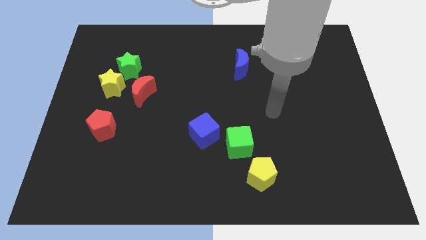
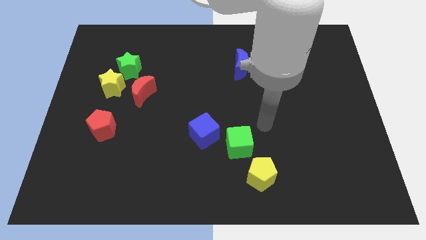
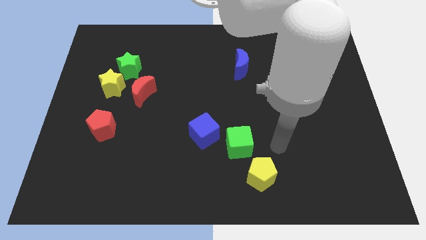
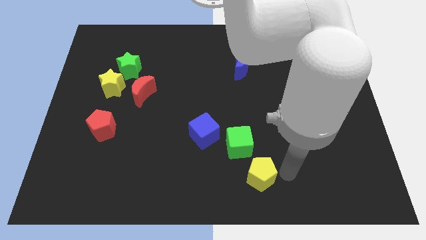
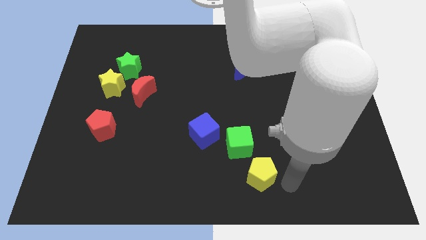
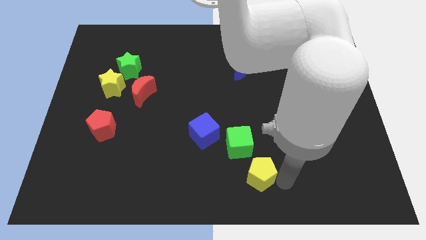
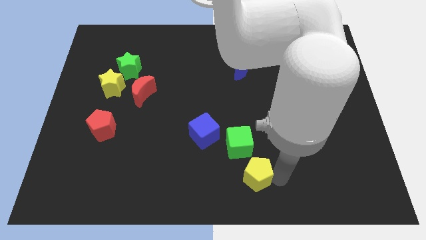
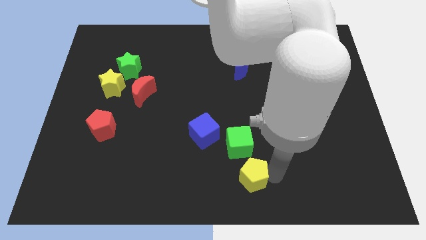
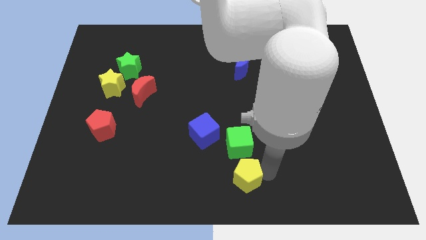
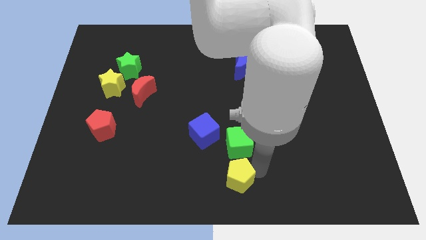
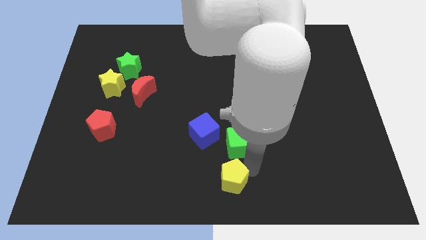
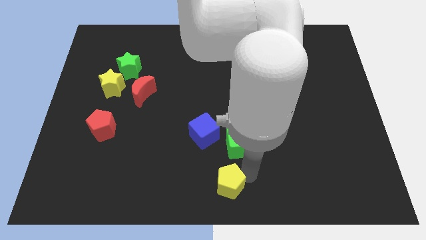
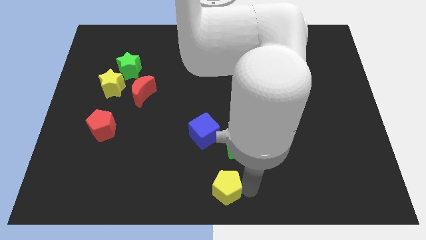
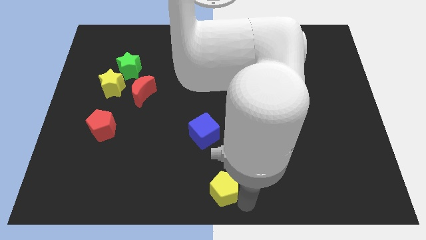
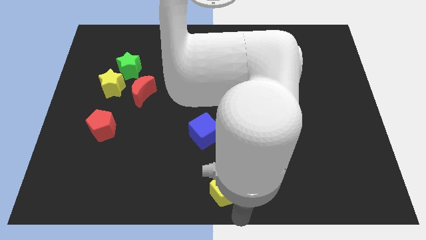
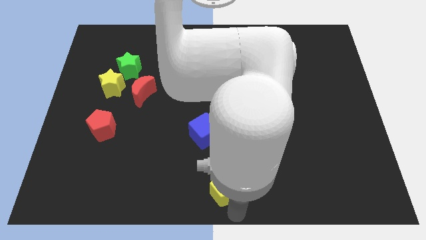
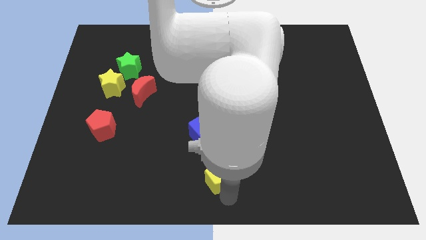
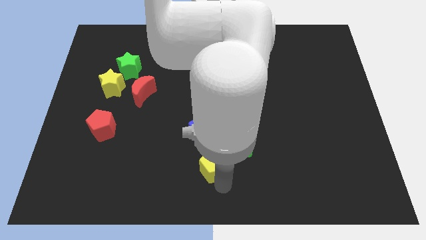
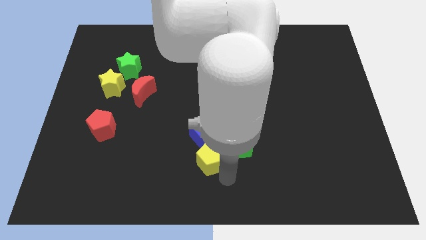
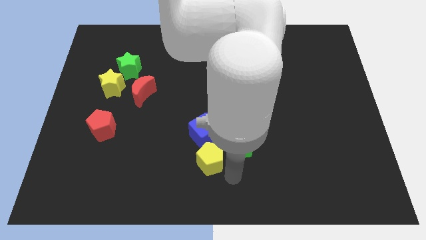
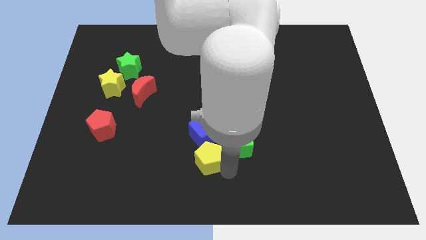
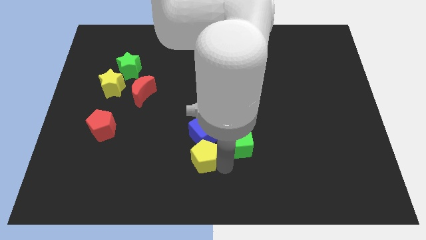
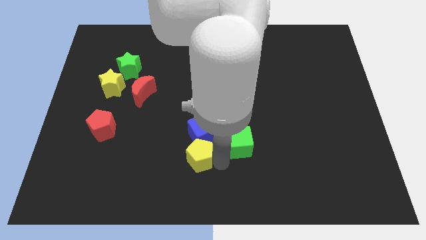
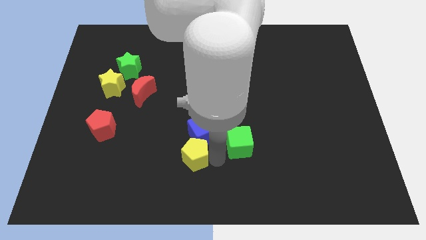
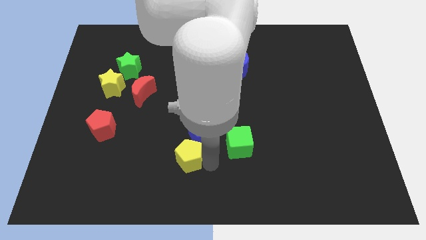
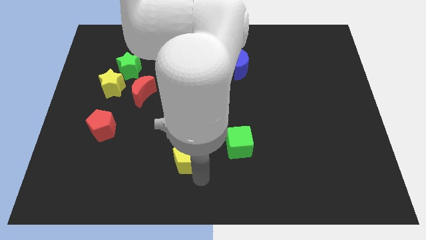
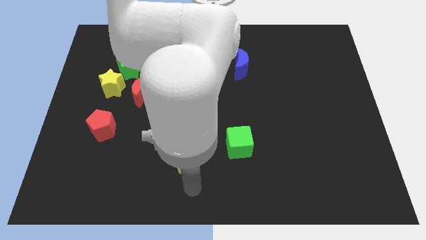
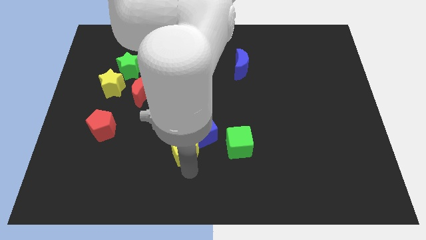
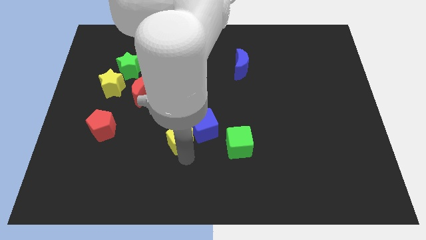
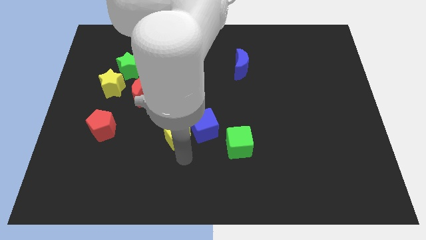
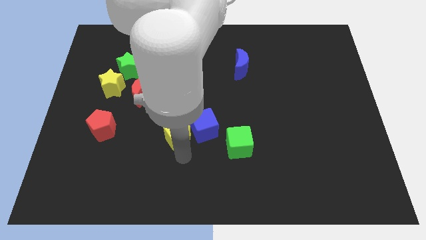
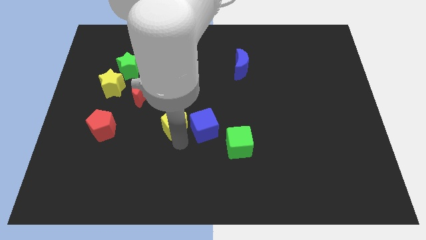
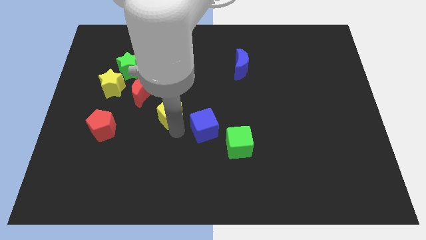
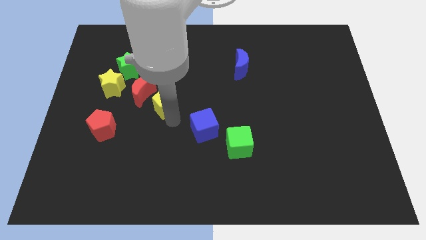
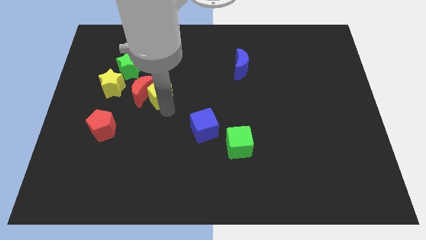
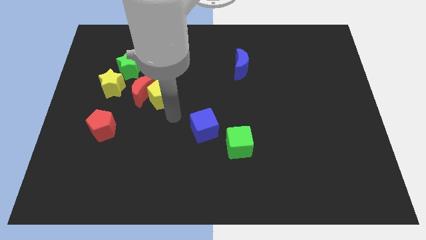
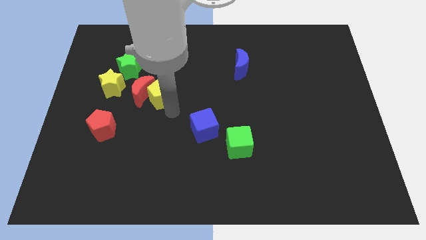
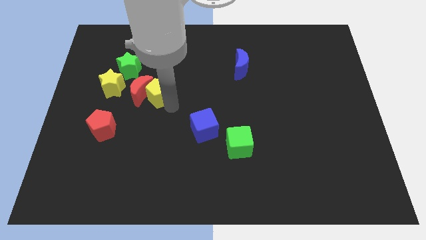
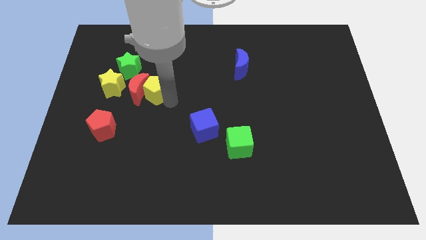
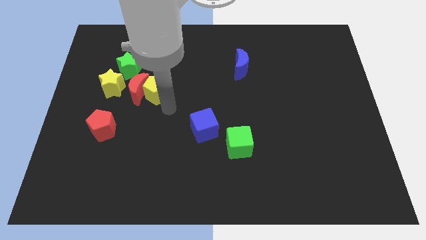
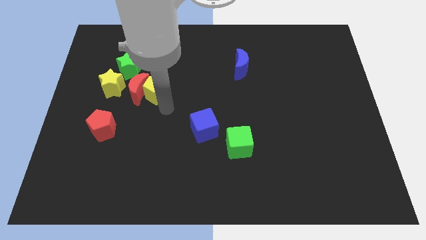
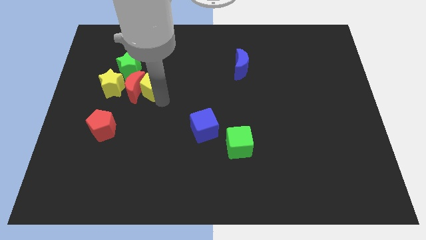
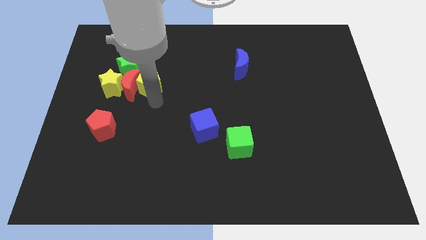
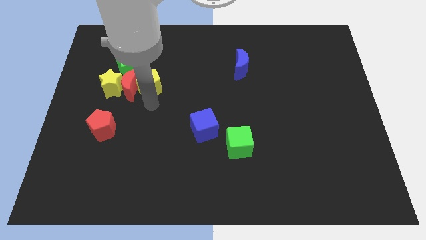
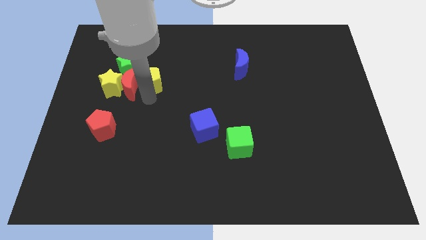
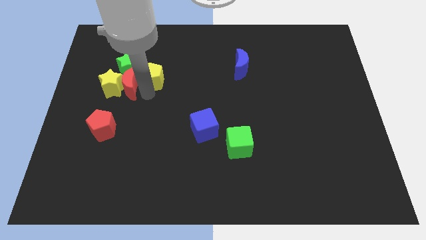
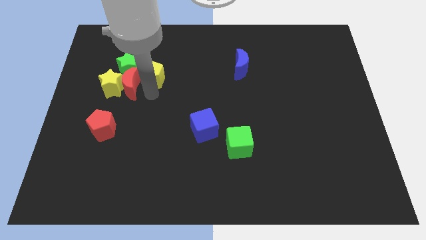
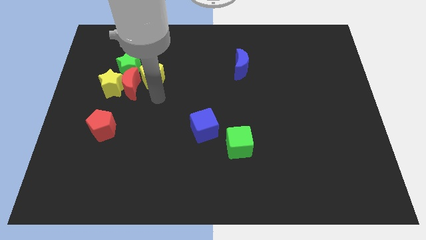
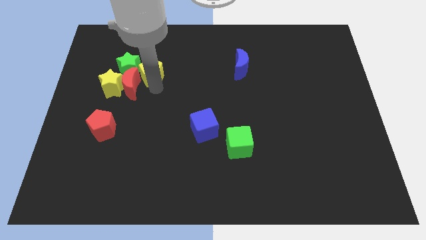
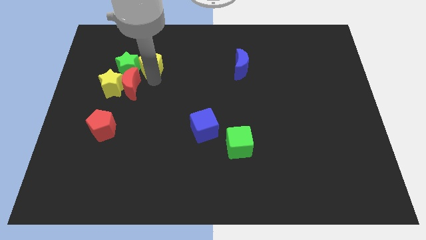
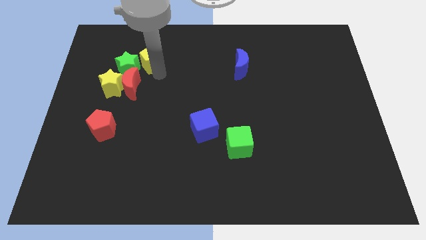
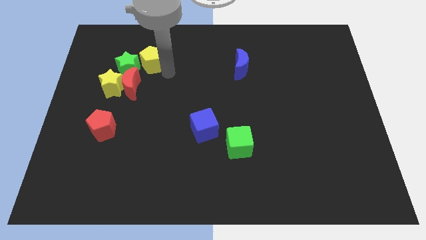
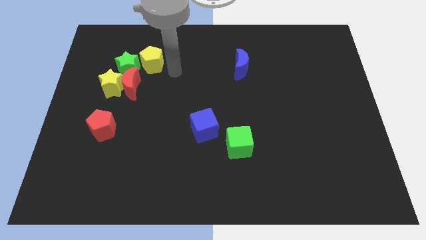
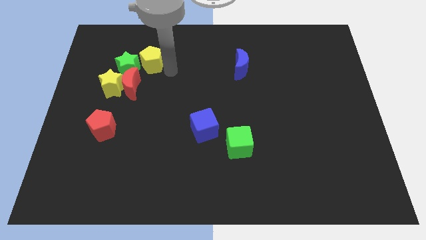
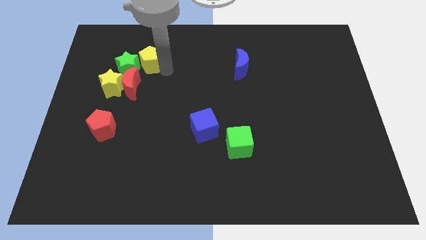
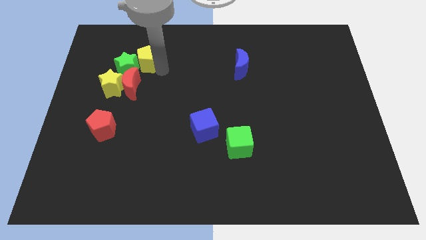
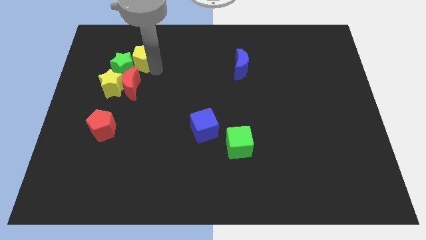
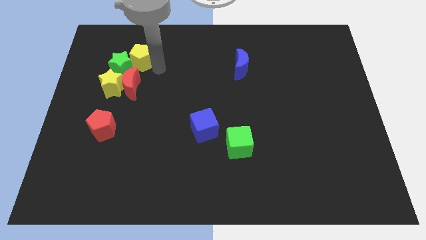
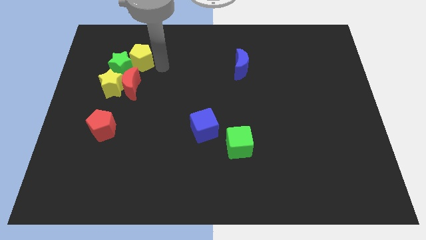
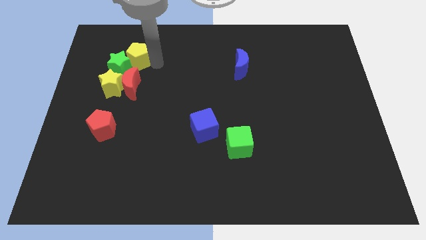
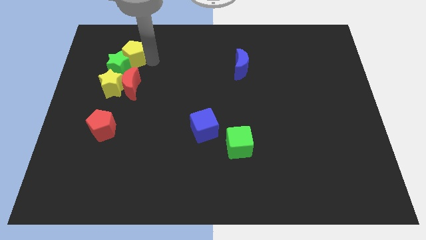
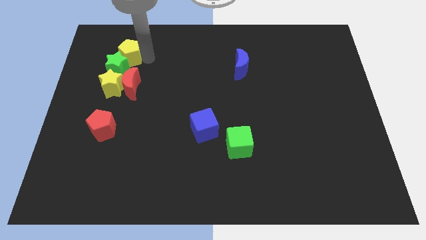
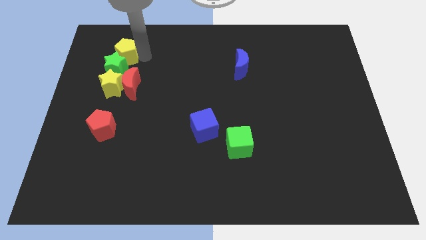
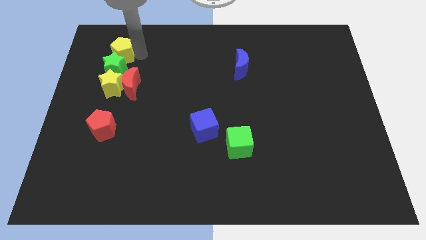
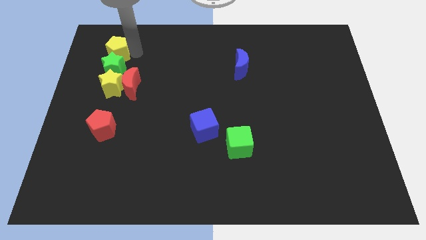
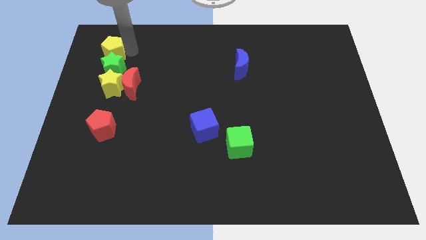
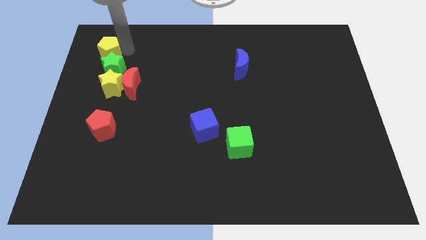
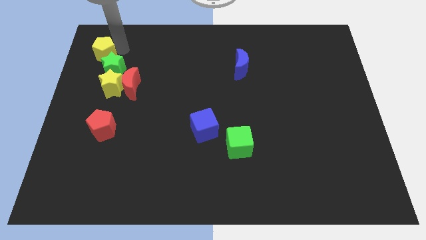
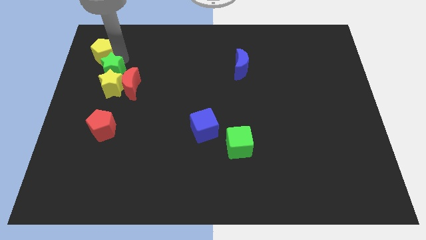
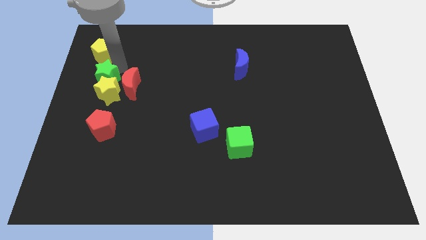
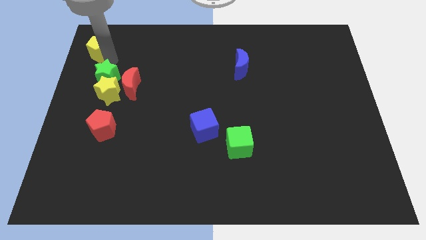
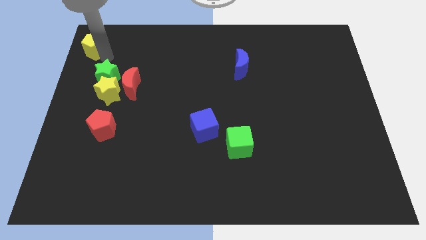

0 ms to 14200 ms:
slide the yellow pentagon to the top left of the board

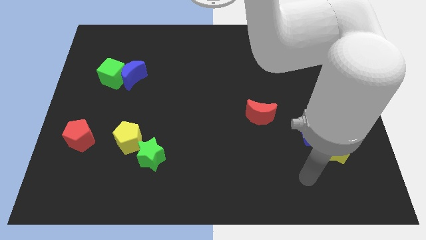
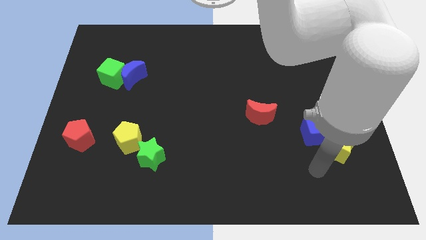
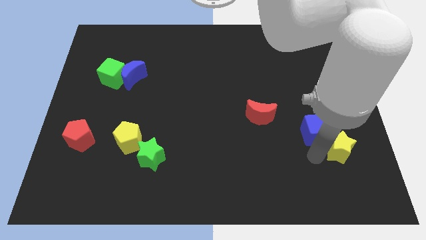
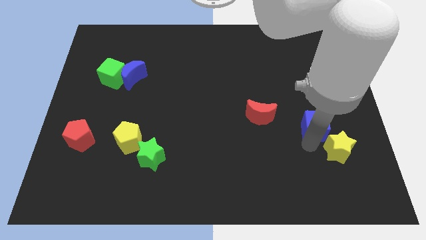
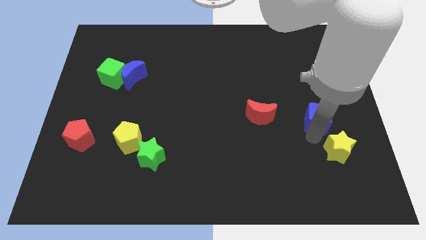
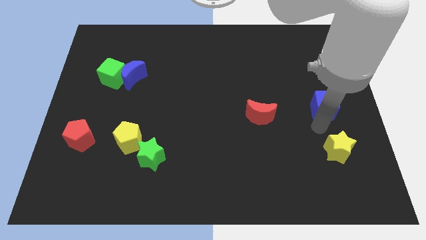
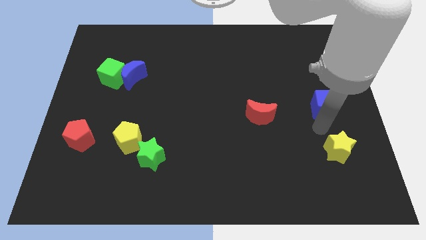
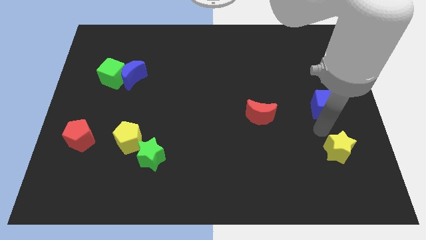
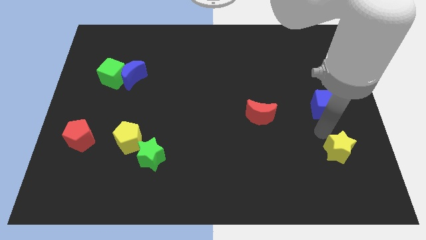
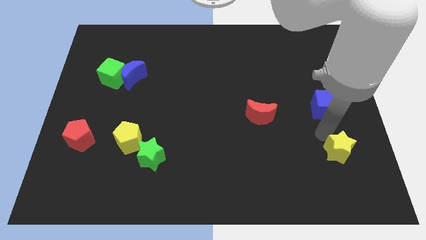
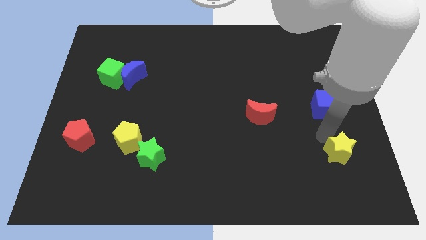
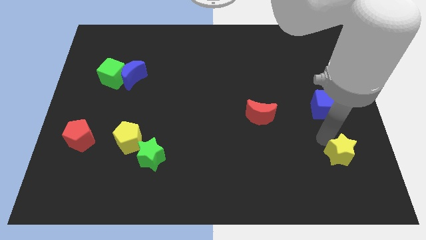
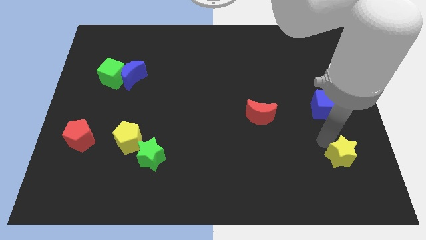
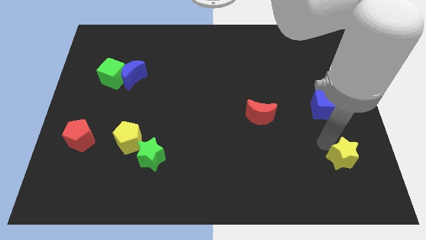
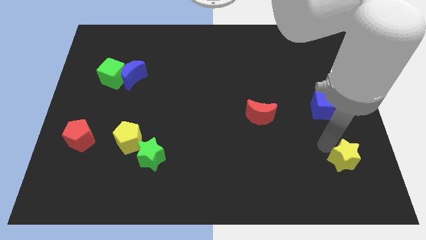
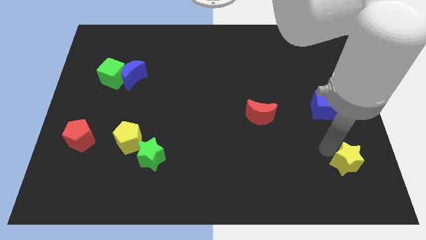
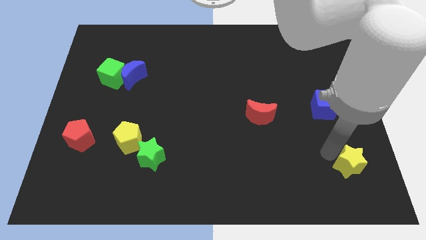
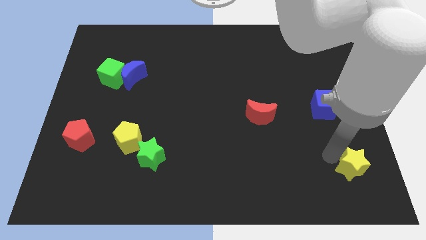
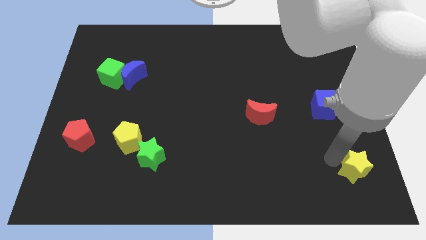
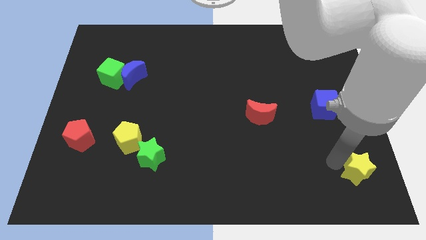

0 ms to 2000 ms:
put the yellow star to the bottom right of the board
